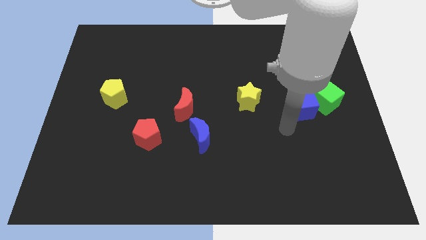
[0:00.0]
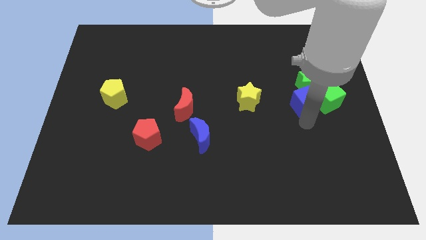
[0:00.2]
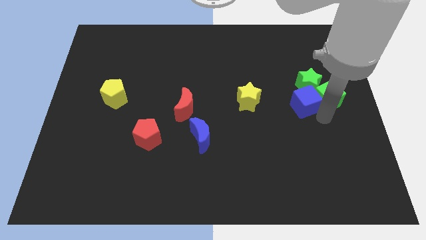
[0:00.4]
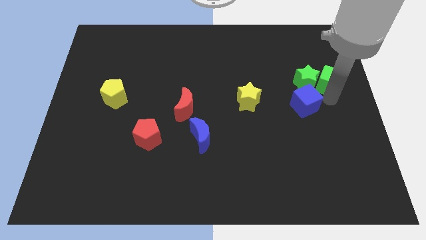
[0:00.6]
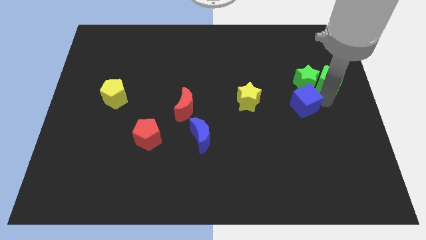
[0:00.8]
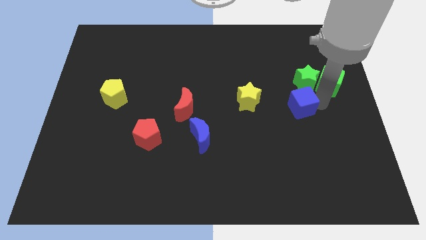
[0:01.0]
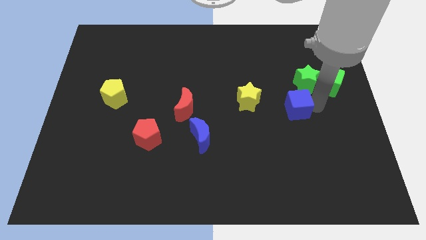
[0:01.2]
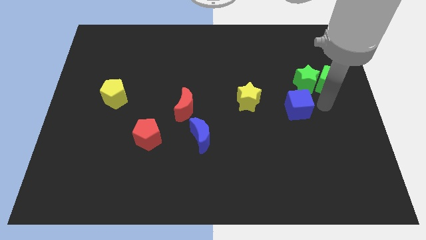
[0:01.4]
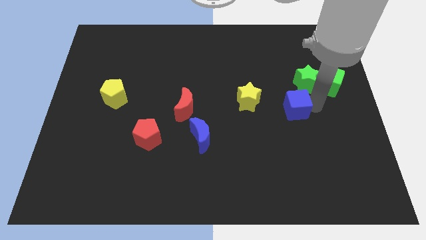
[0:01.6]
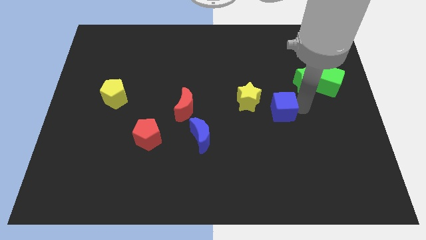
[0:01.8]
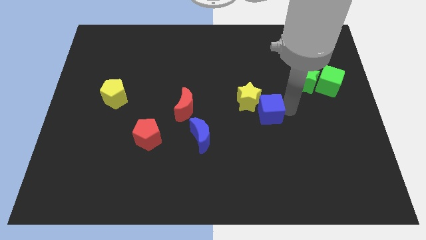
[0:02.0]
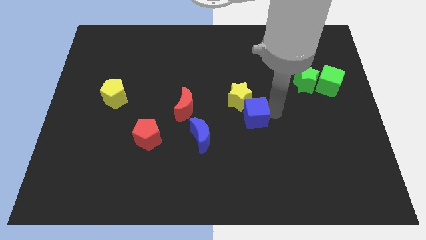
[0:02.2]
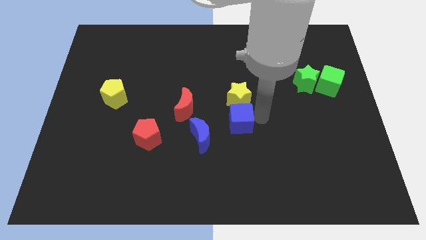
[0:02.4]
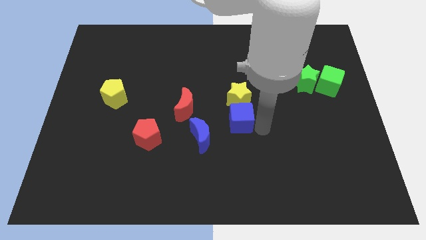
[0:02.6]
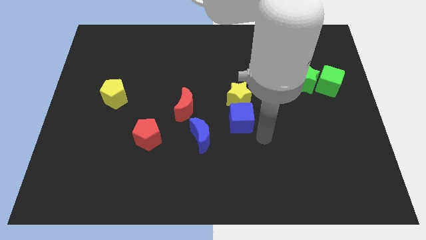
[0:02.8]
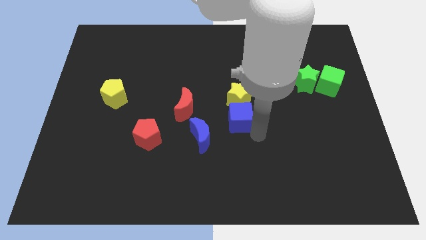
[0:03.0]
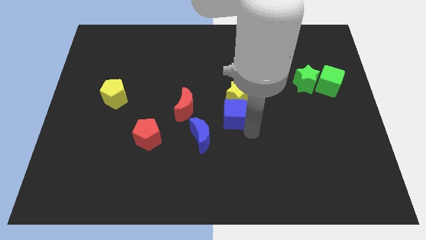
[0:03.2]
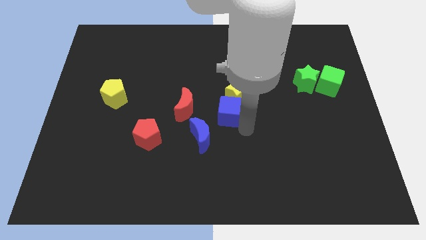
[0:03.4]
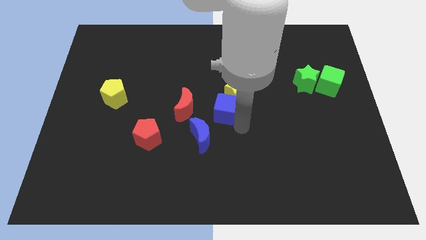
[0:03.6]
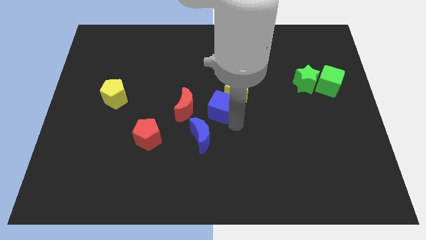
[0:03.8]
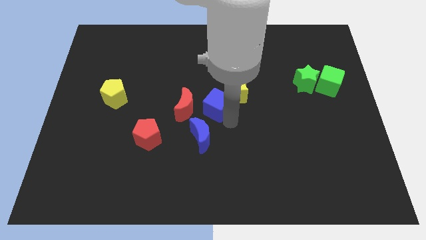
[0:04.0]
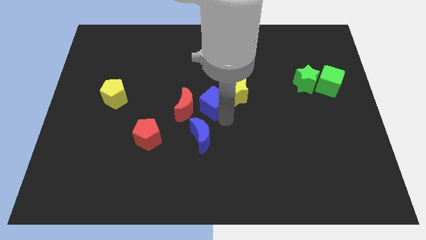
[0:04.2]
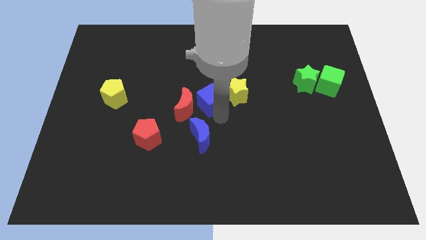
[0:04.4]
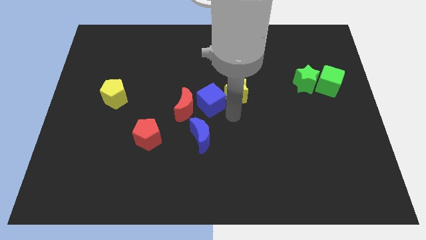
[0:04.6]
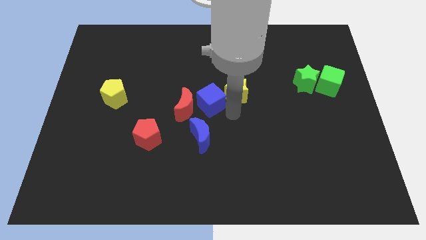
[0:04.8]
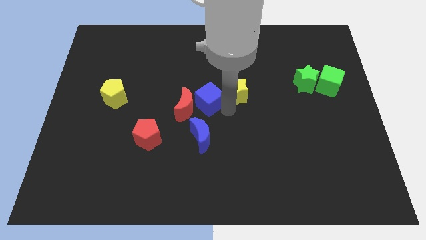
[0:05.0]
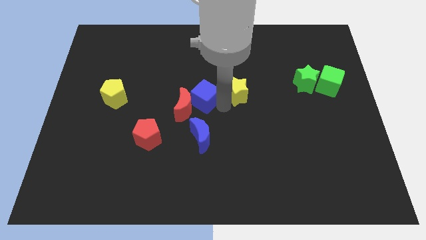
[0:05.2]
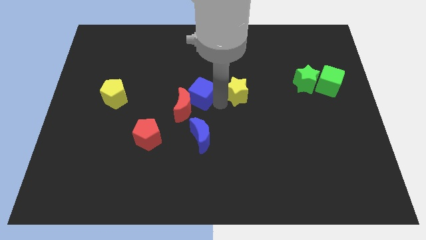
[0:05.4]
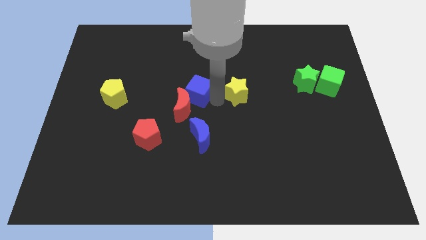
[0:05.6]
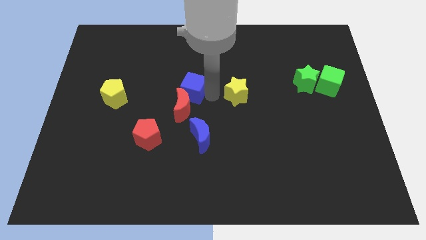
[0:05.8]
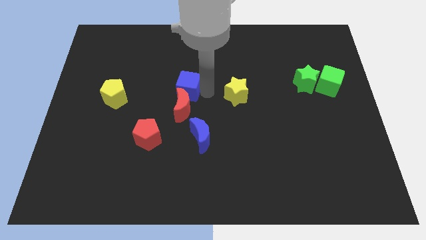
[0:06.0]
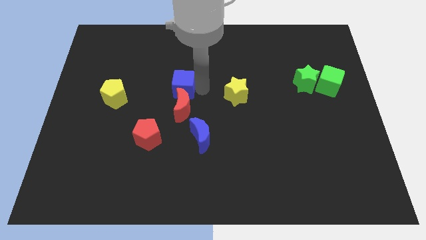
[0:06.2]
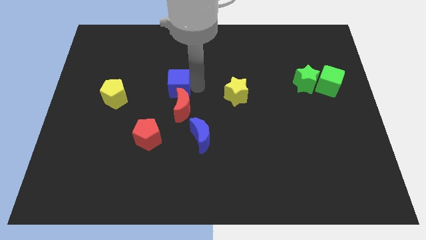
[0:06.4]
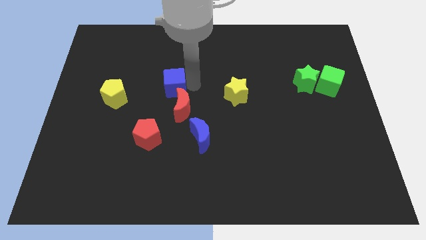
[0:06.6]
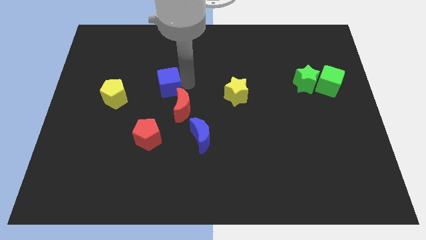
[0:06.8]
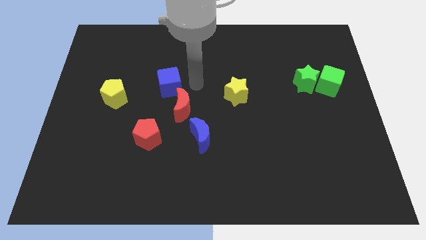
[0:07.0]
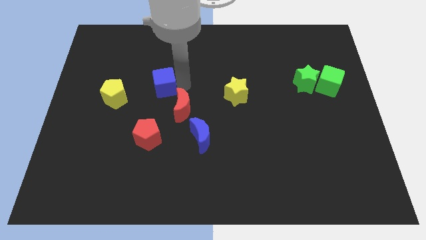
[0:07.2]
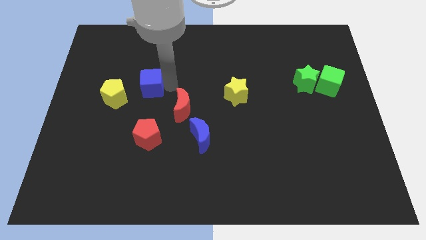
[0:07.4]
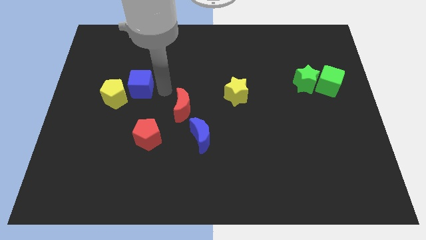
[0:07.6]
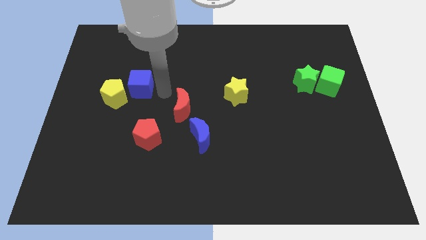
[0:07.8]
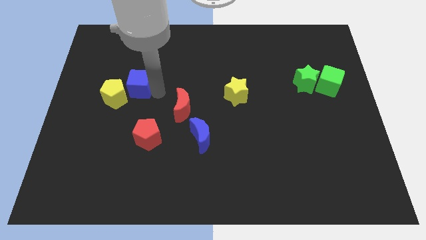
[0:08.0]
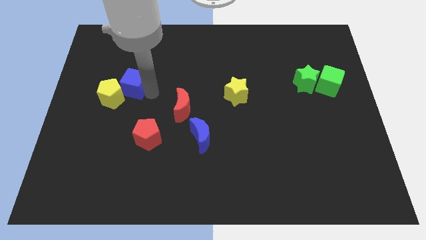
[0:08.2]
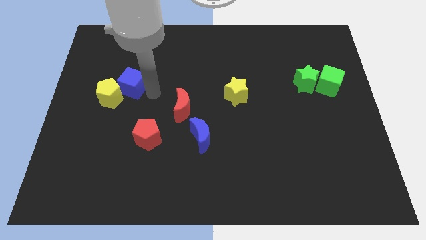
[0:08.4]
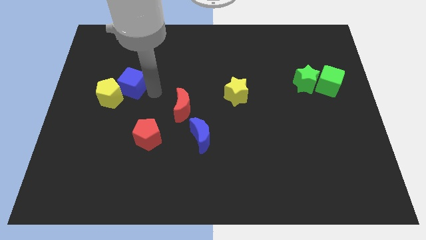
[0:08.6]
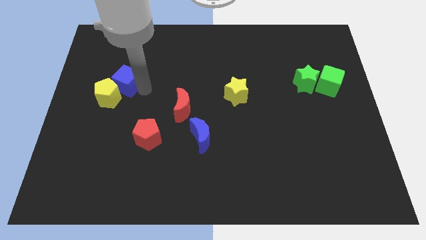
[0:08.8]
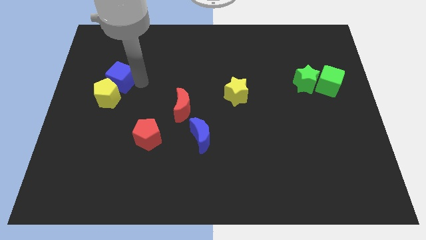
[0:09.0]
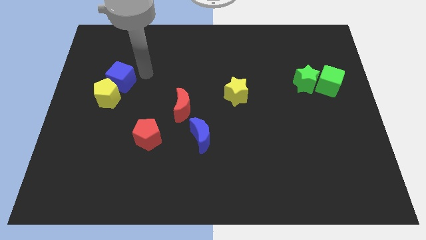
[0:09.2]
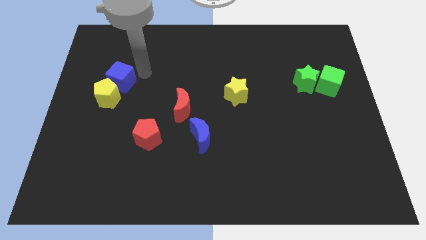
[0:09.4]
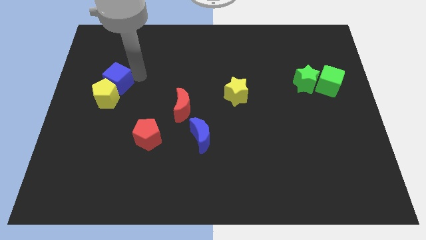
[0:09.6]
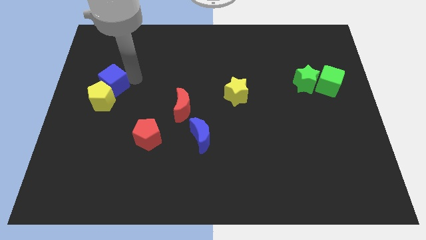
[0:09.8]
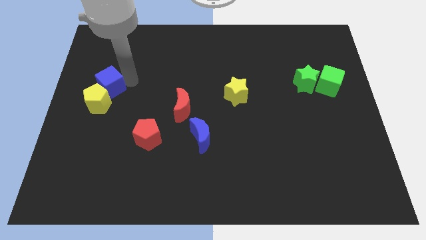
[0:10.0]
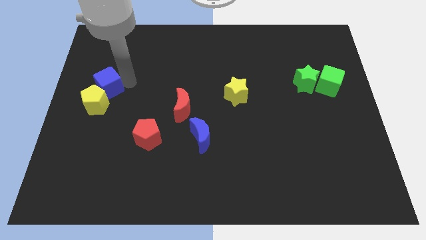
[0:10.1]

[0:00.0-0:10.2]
put the blue cube to the left side
